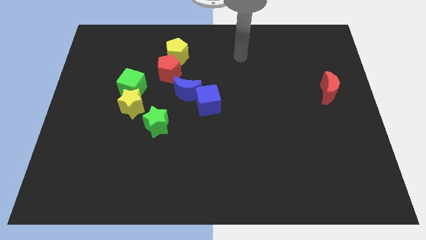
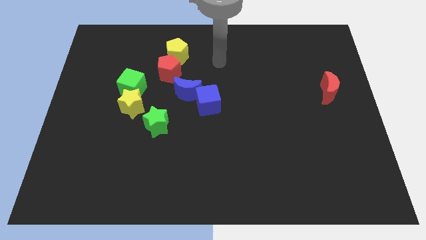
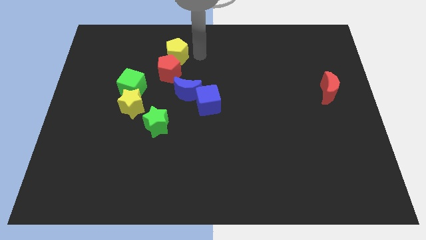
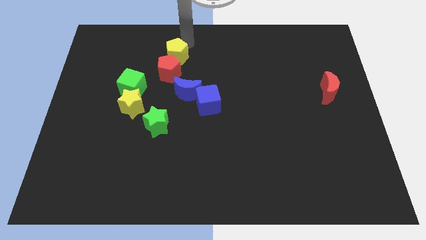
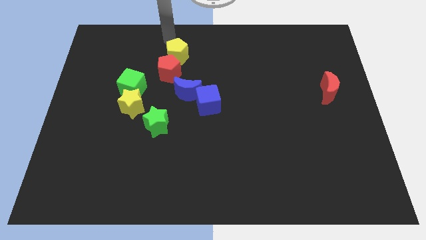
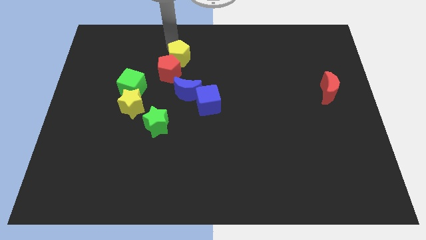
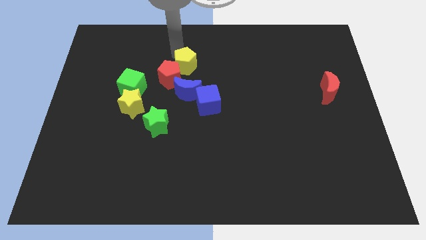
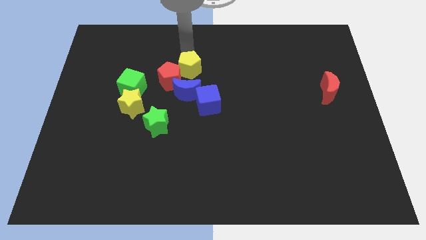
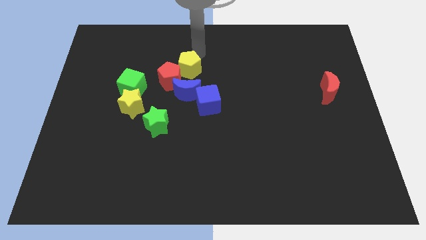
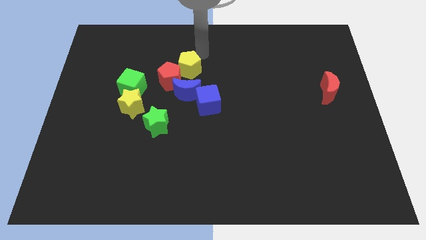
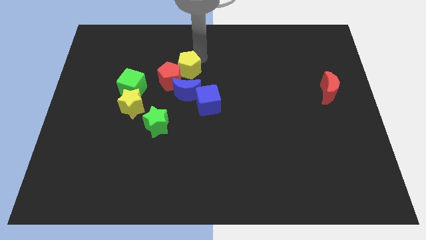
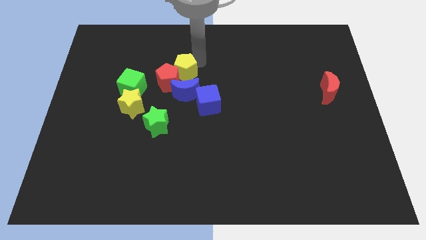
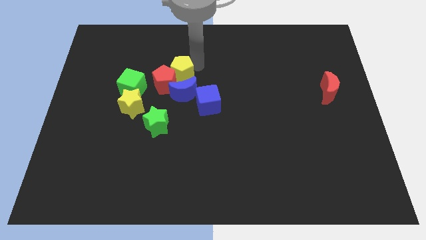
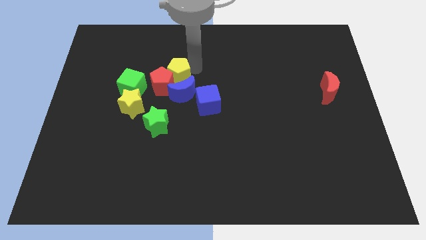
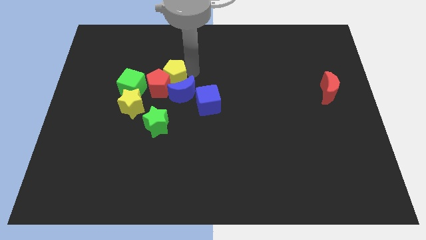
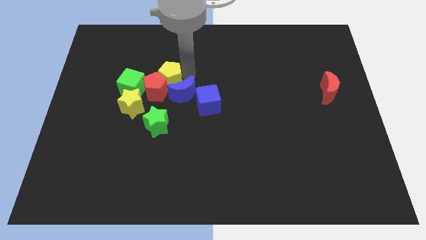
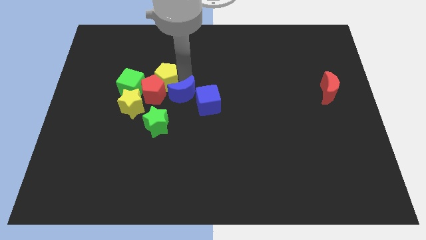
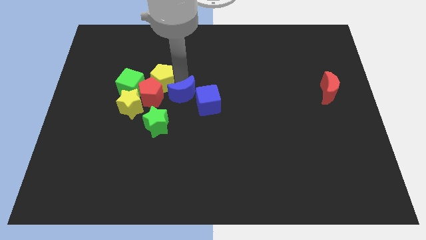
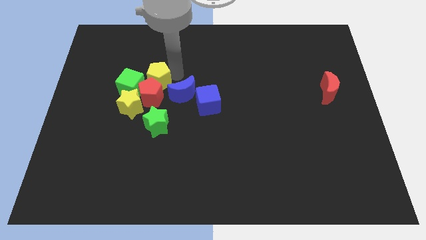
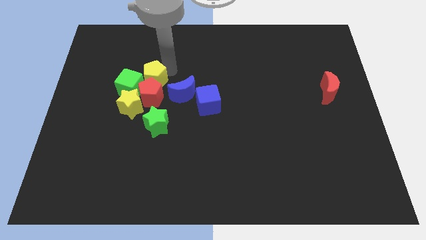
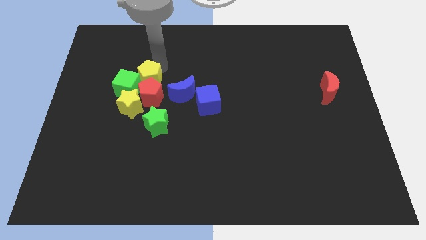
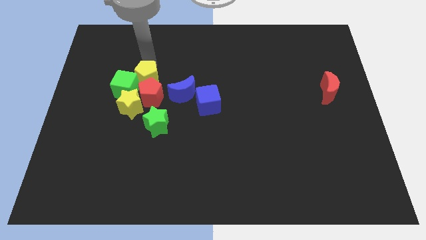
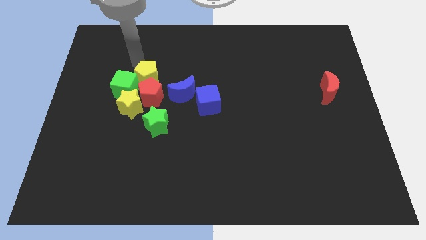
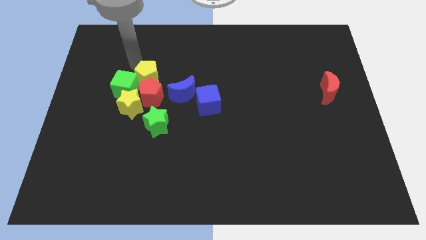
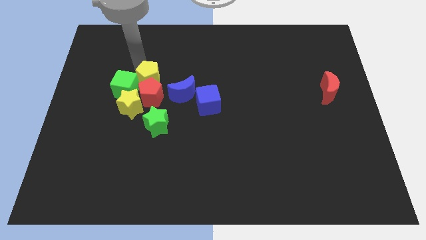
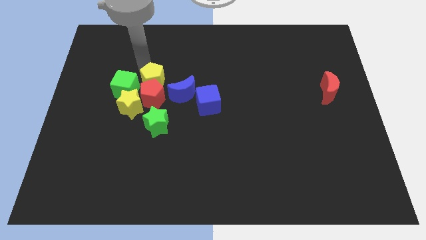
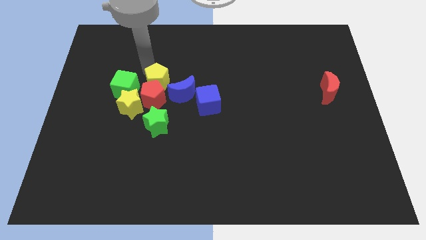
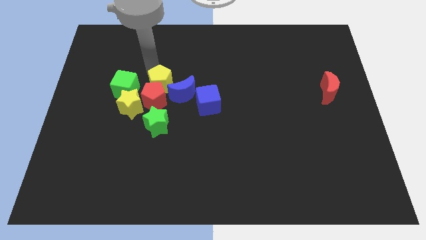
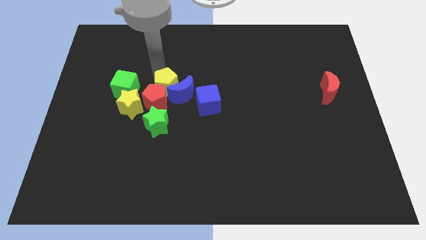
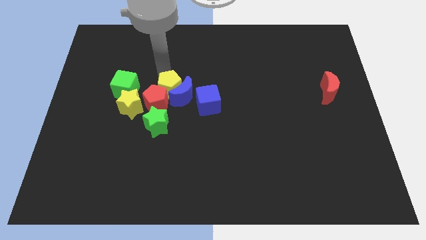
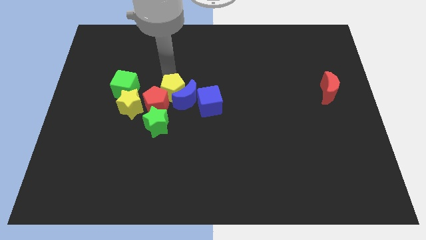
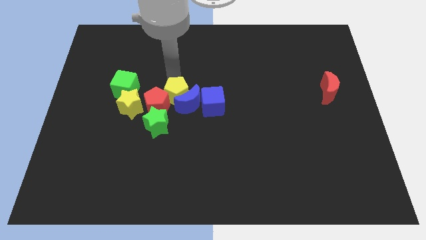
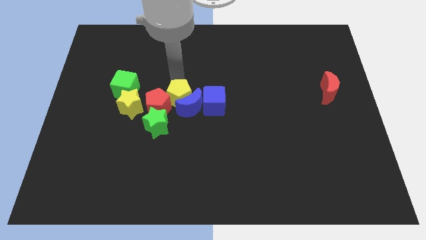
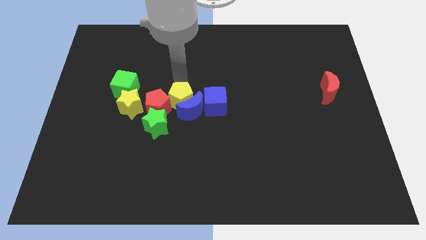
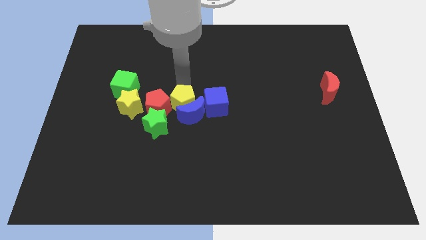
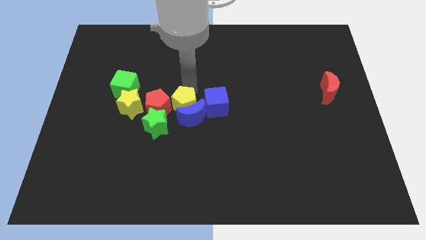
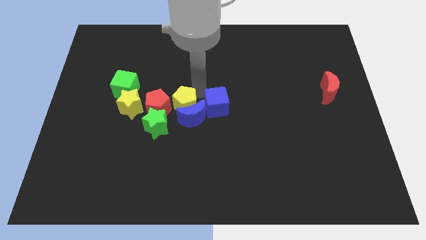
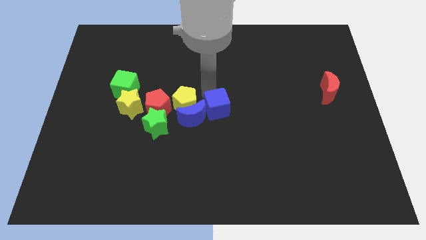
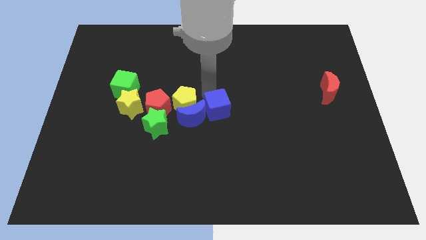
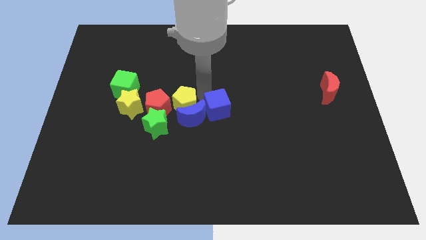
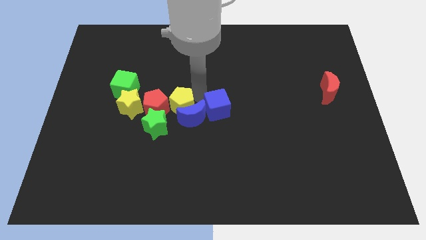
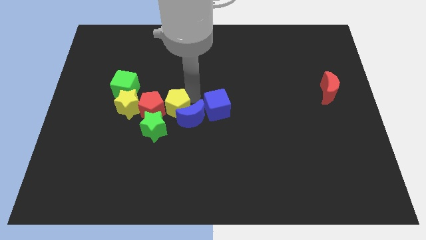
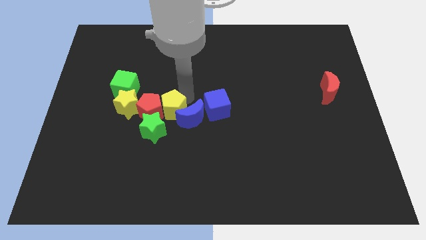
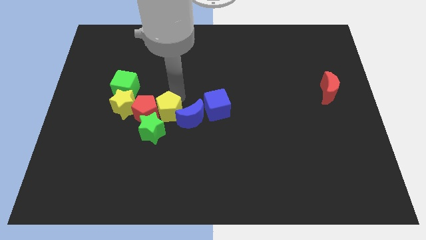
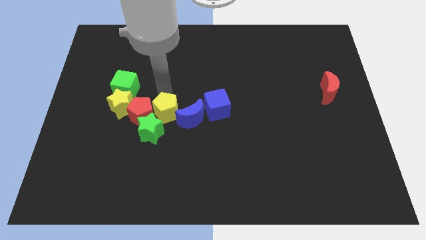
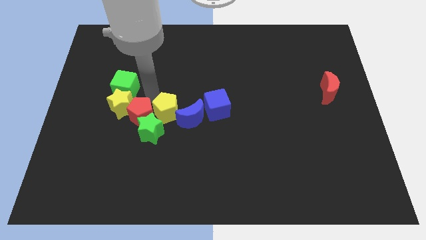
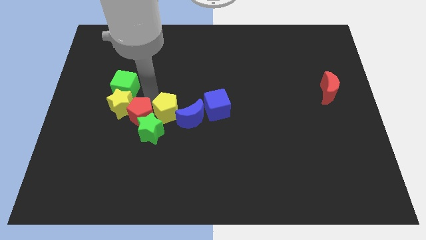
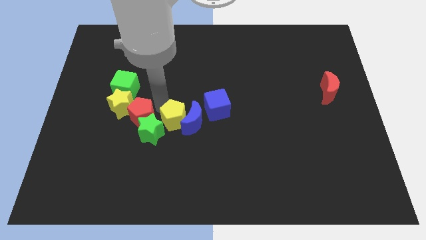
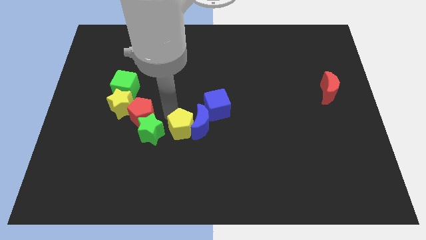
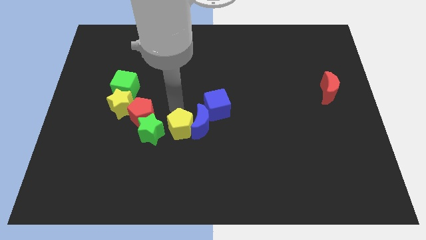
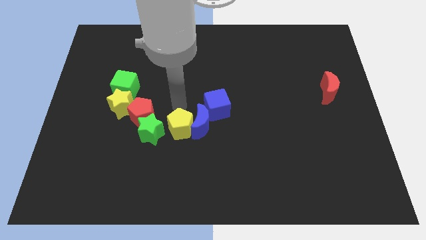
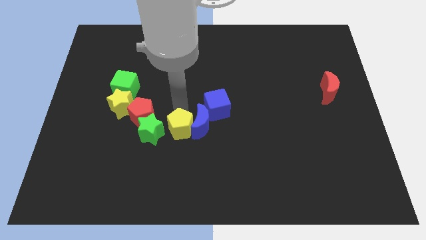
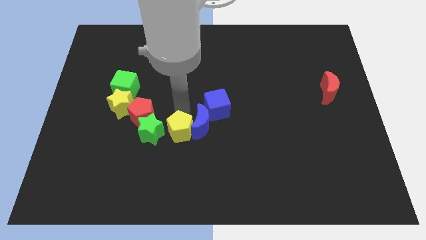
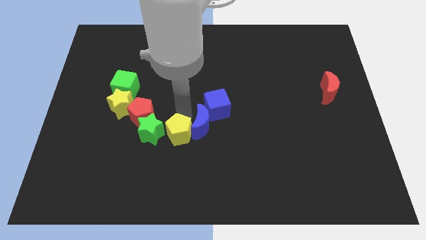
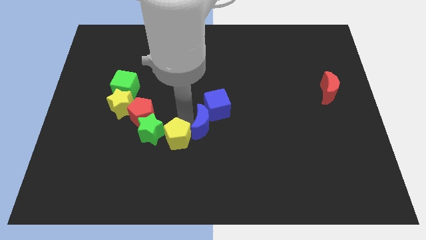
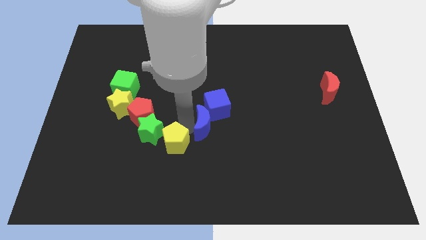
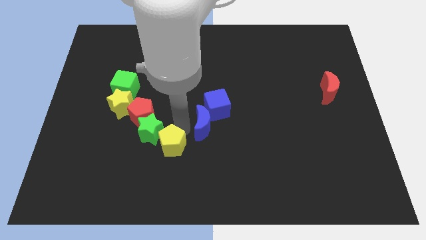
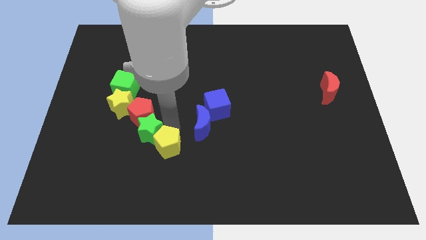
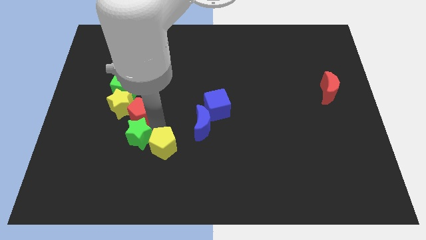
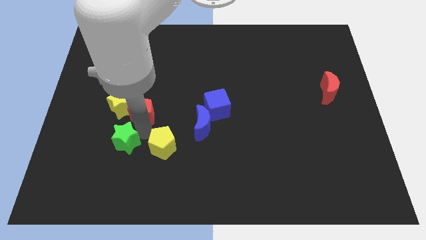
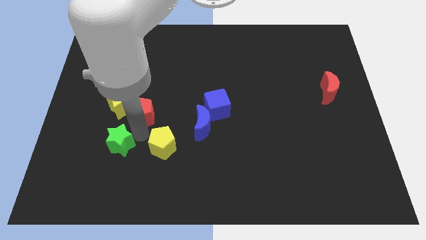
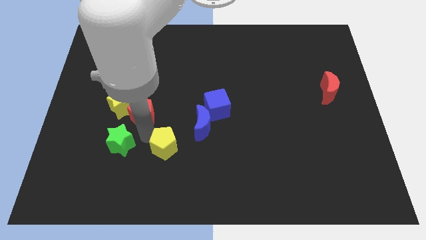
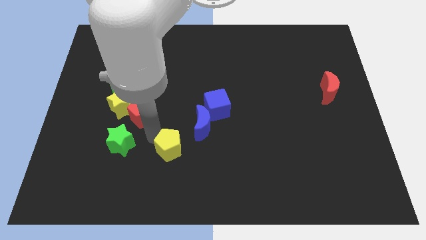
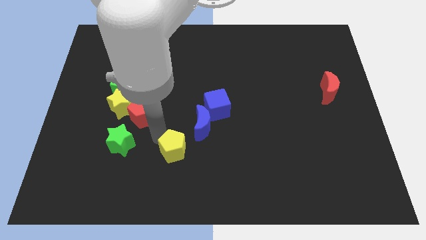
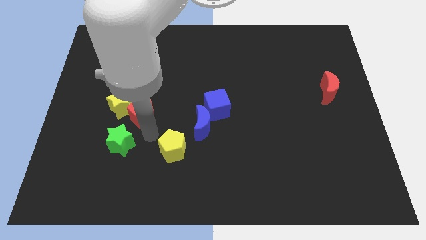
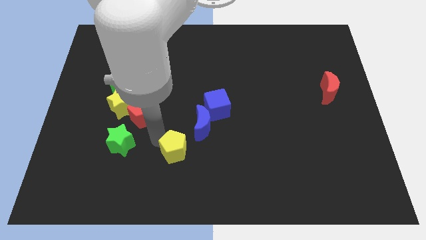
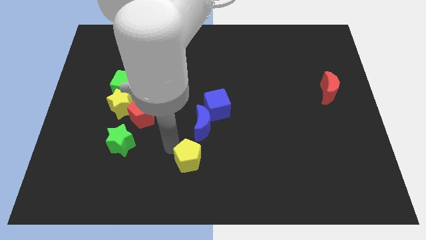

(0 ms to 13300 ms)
put the yellow pentagon to the bottom side

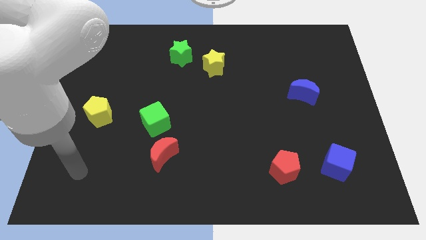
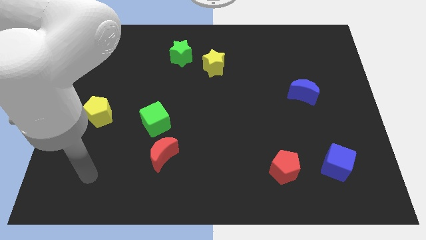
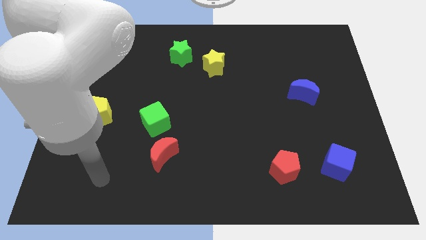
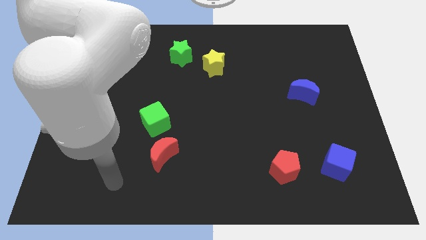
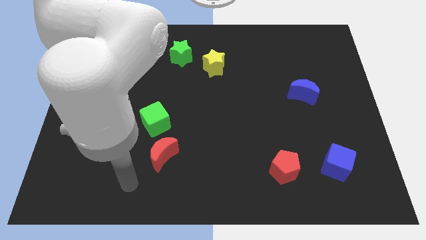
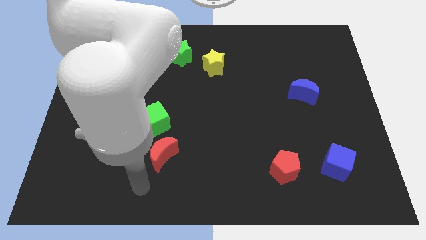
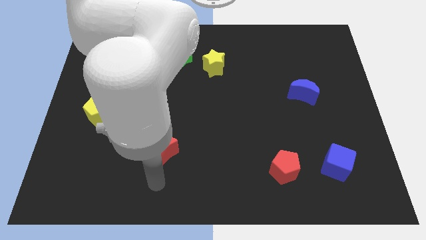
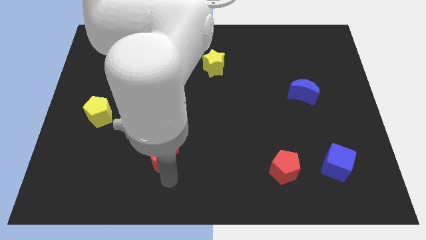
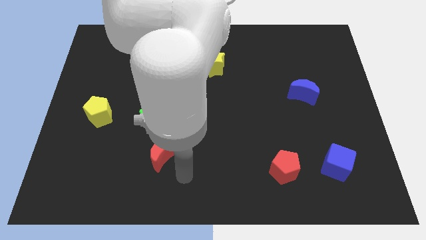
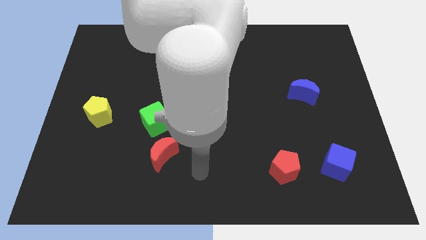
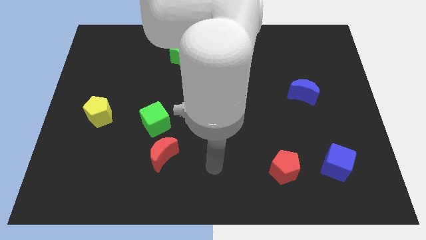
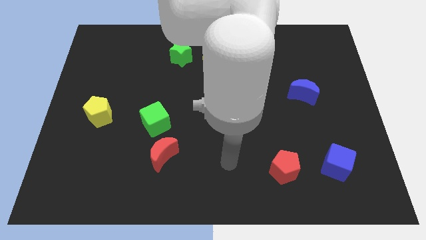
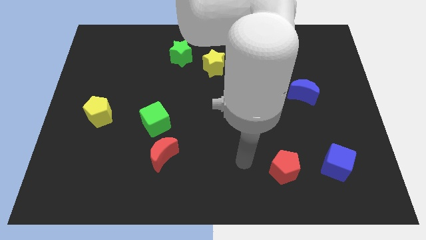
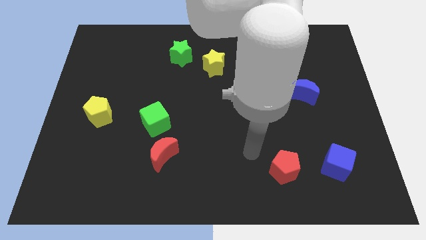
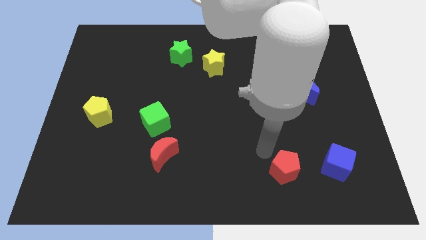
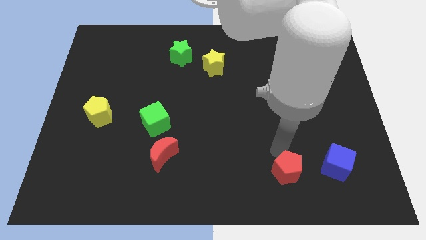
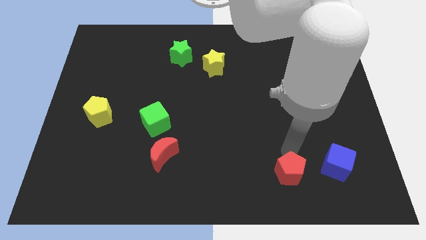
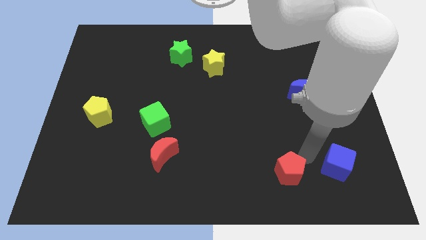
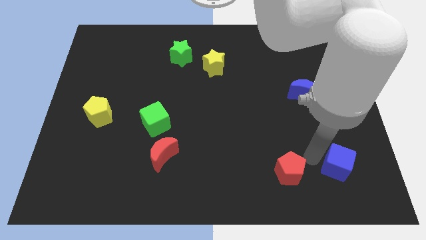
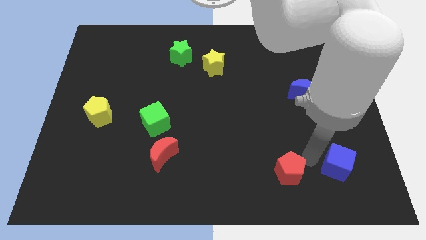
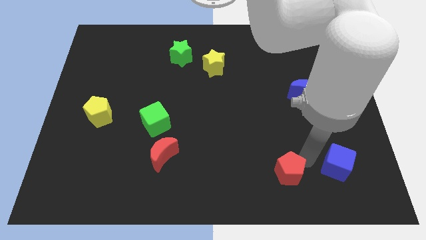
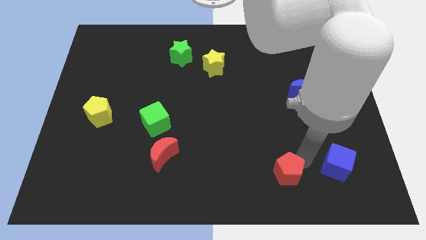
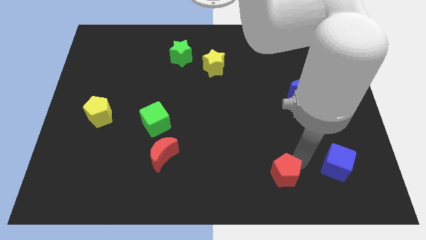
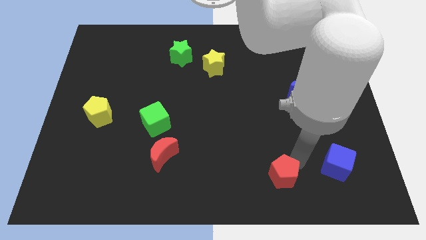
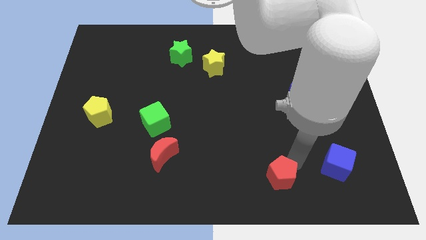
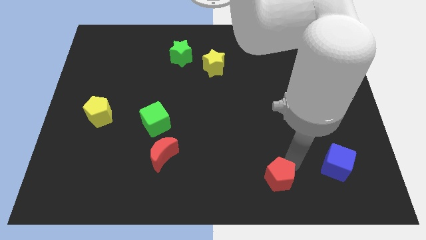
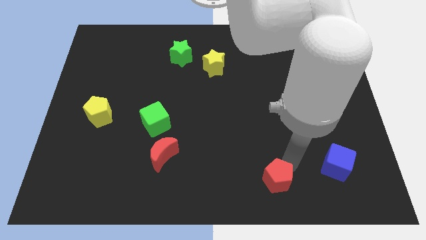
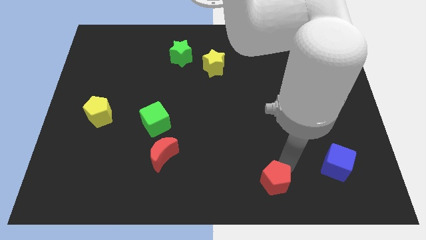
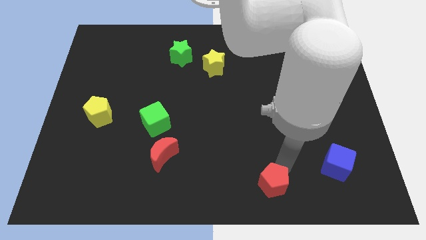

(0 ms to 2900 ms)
slide the red pentagon to the bottom
